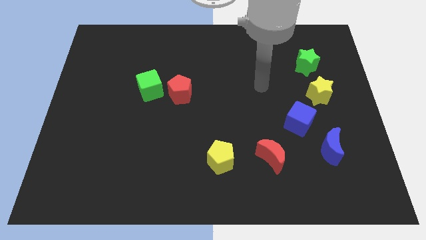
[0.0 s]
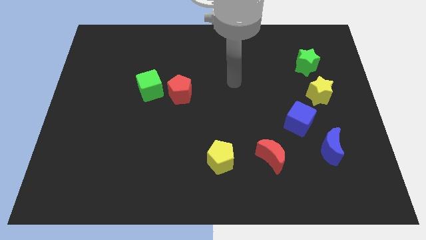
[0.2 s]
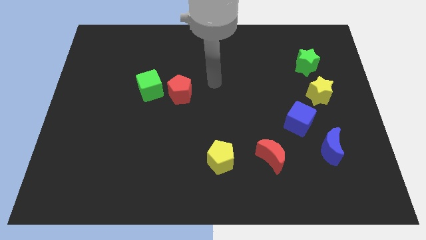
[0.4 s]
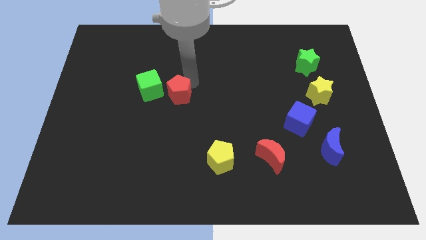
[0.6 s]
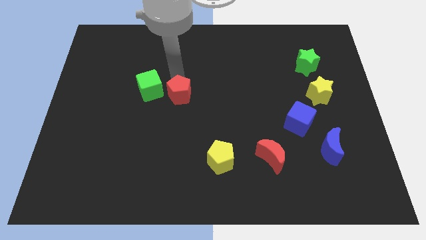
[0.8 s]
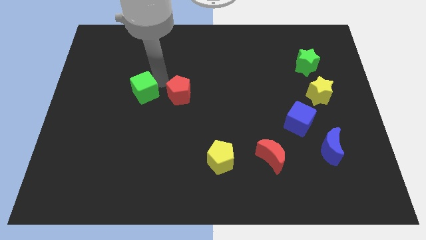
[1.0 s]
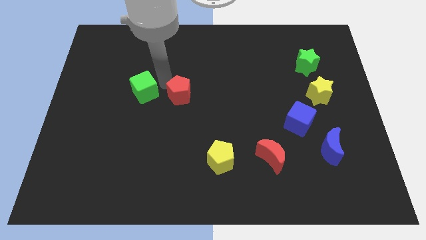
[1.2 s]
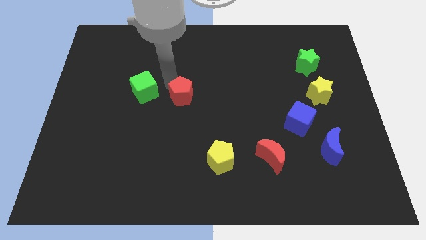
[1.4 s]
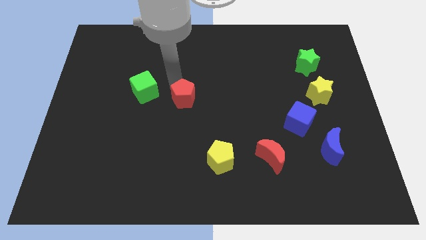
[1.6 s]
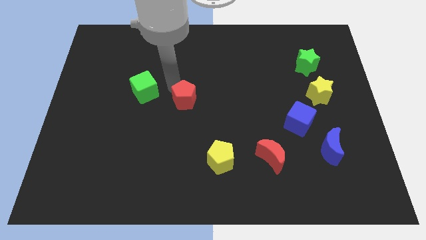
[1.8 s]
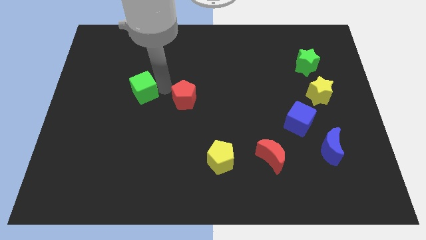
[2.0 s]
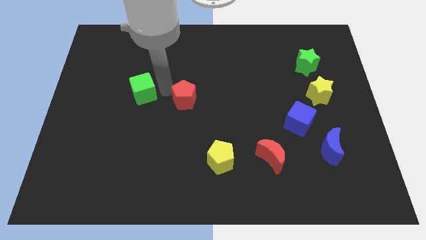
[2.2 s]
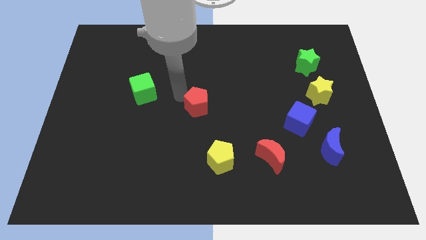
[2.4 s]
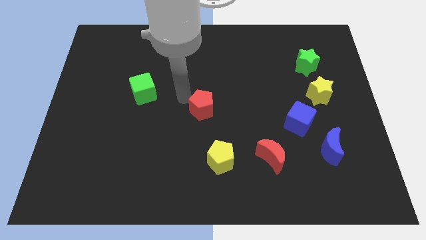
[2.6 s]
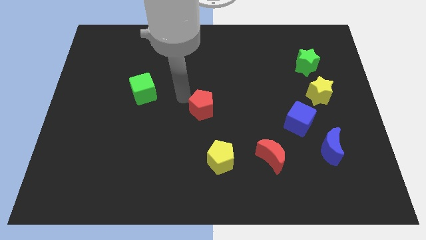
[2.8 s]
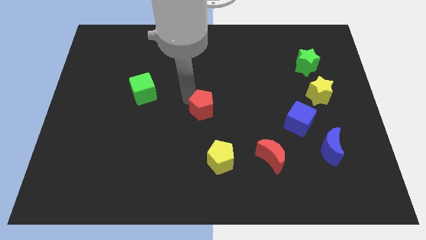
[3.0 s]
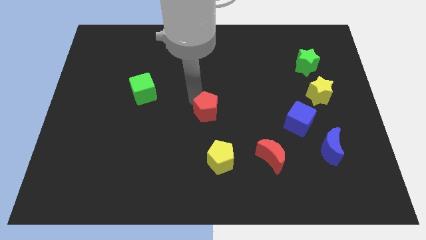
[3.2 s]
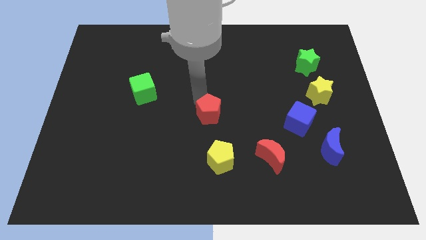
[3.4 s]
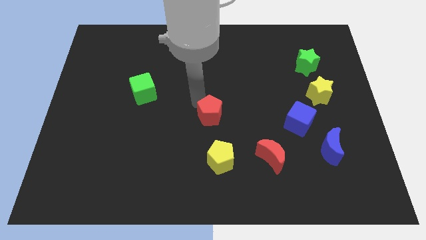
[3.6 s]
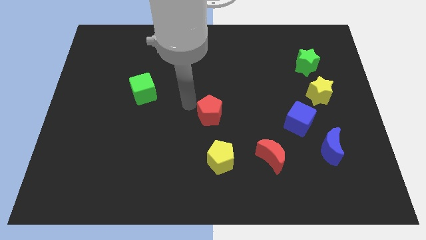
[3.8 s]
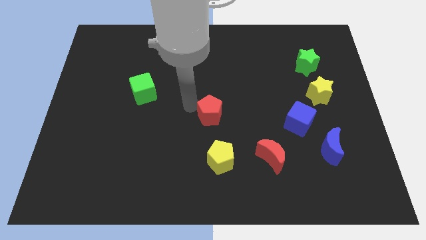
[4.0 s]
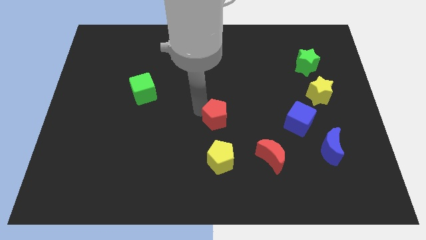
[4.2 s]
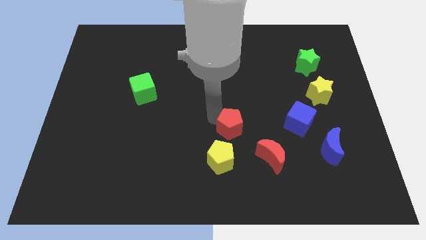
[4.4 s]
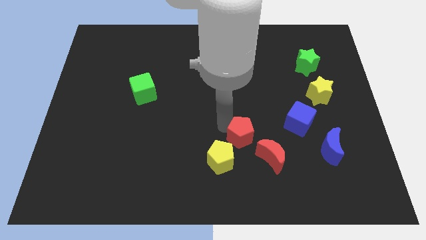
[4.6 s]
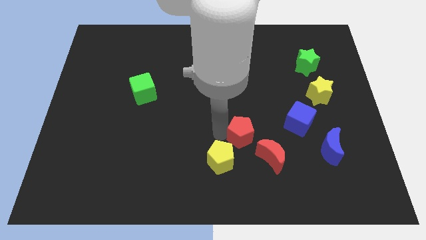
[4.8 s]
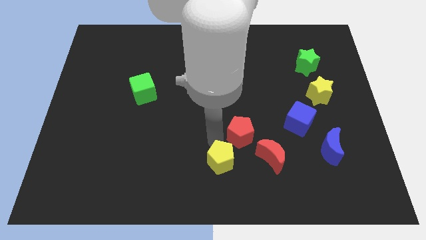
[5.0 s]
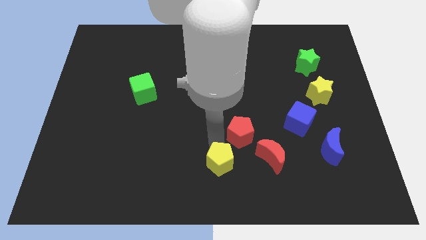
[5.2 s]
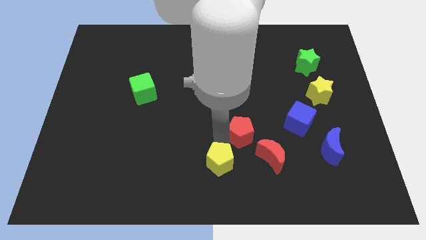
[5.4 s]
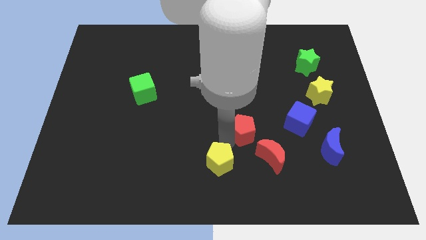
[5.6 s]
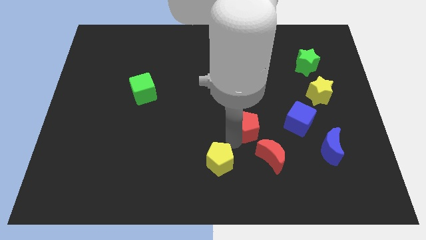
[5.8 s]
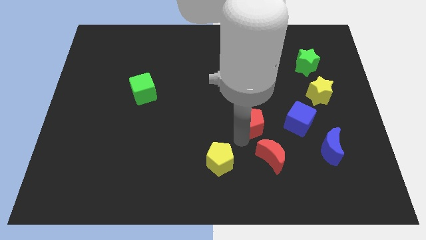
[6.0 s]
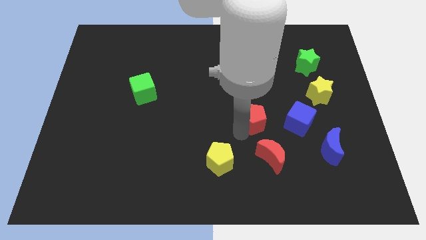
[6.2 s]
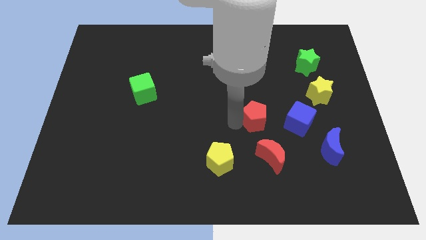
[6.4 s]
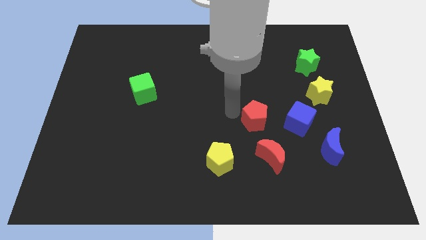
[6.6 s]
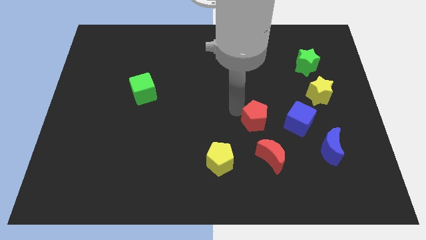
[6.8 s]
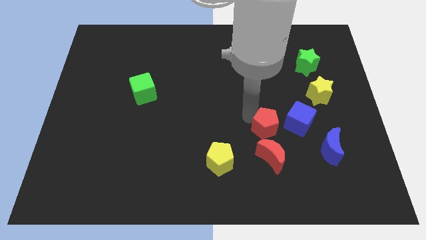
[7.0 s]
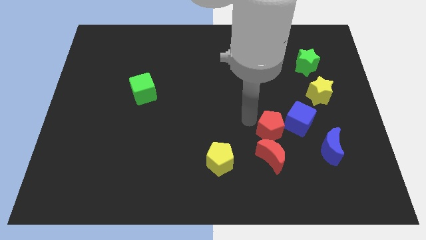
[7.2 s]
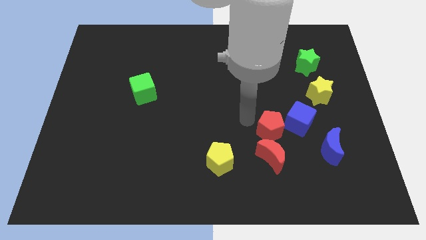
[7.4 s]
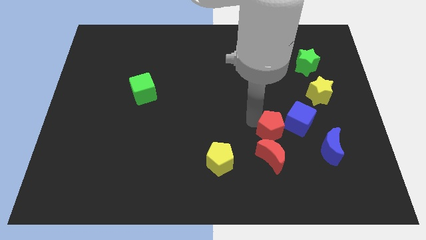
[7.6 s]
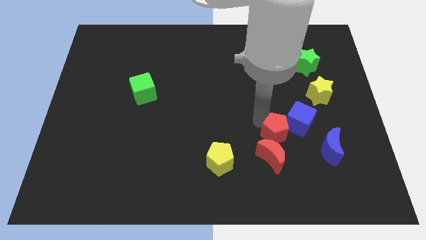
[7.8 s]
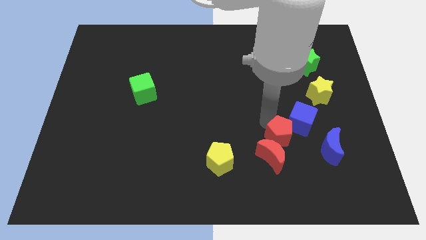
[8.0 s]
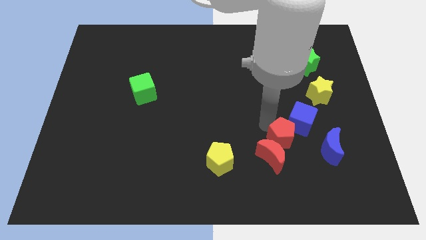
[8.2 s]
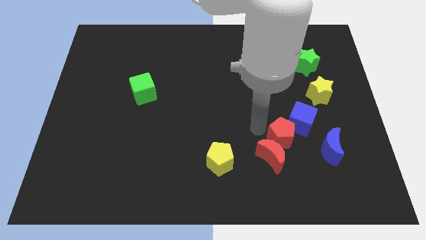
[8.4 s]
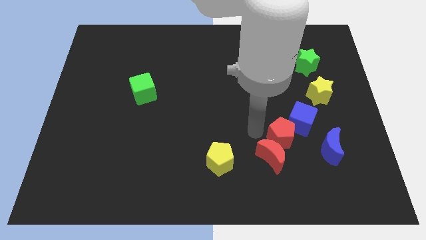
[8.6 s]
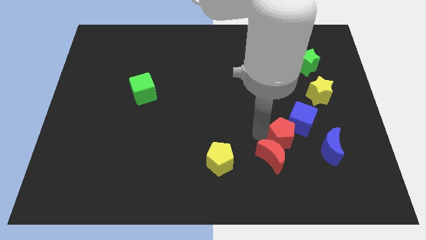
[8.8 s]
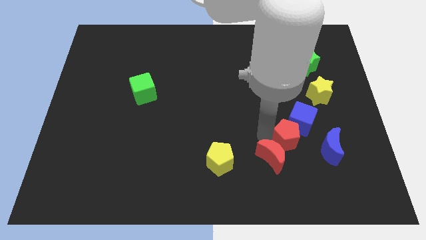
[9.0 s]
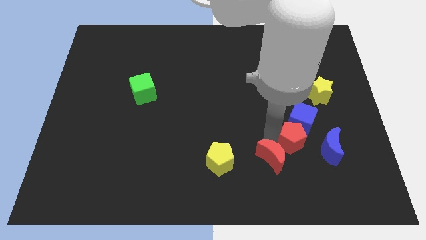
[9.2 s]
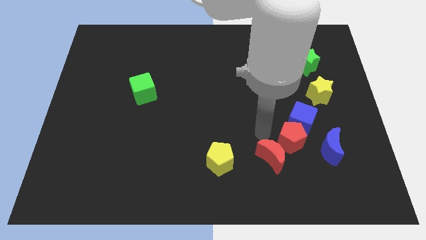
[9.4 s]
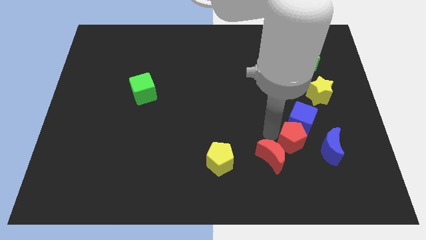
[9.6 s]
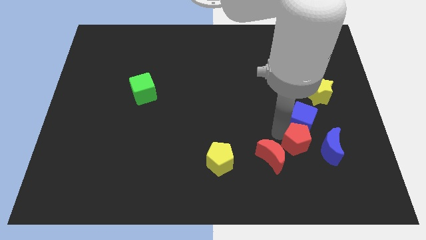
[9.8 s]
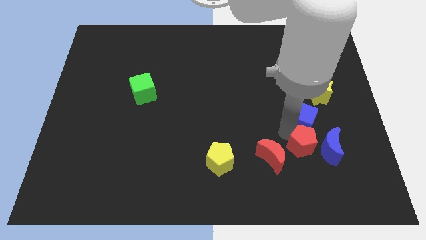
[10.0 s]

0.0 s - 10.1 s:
move the red pentagon close to the blue moon

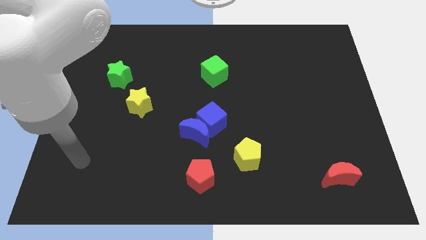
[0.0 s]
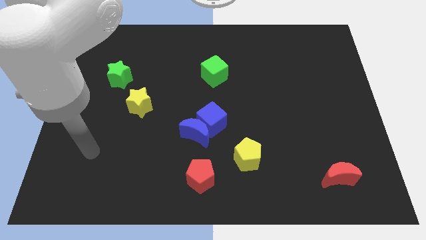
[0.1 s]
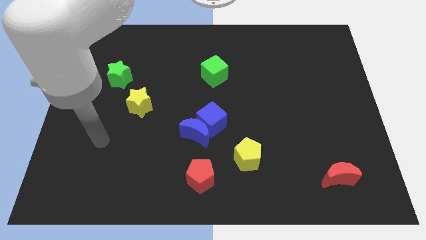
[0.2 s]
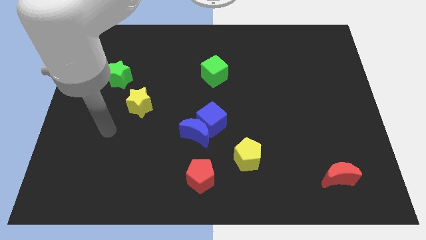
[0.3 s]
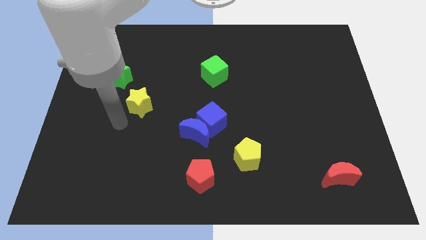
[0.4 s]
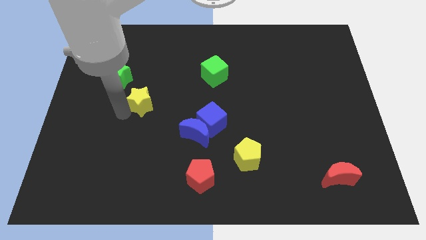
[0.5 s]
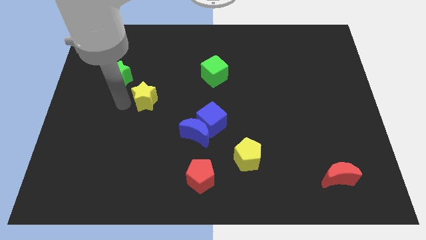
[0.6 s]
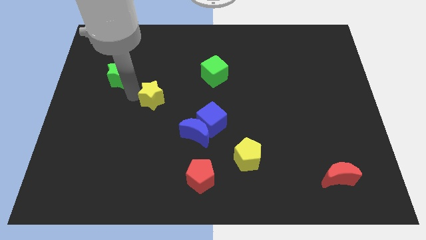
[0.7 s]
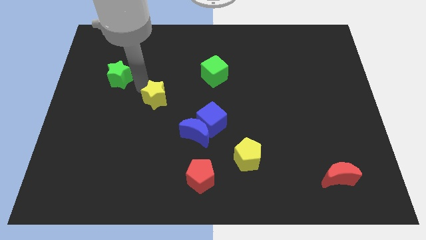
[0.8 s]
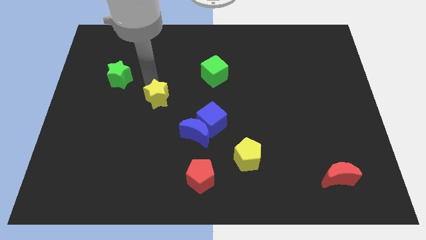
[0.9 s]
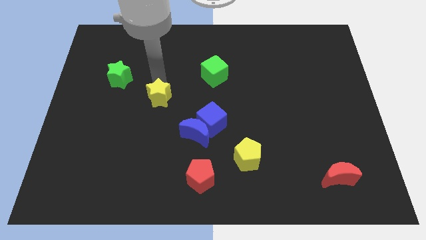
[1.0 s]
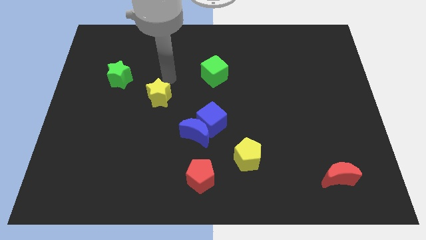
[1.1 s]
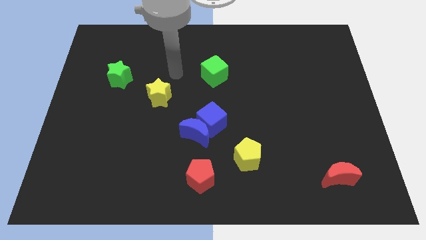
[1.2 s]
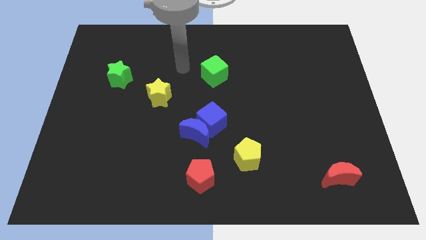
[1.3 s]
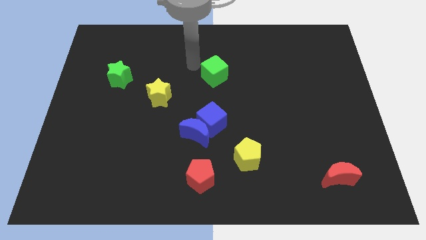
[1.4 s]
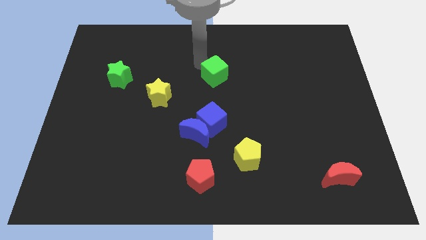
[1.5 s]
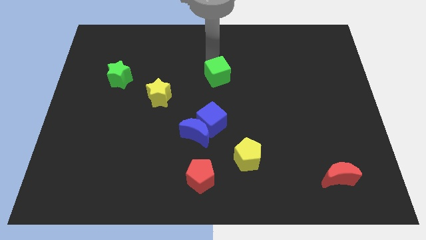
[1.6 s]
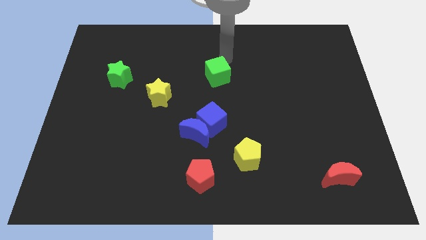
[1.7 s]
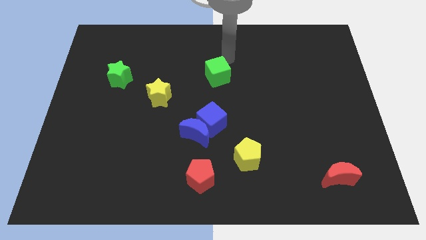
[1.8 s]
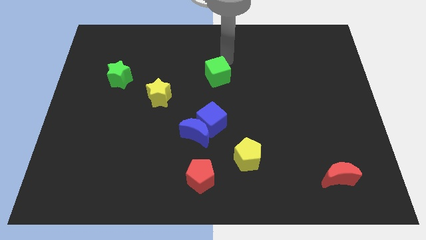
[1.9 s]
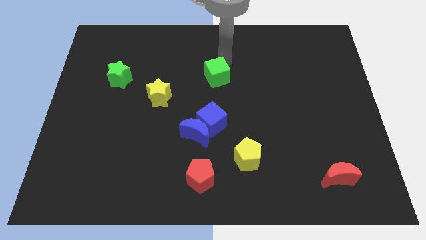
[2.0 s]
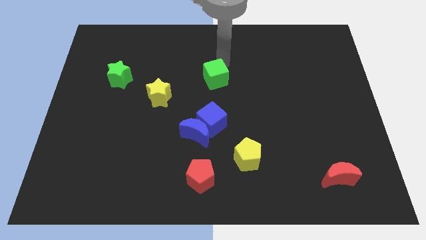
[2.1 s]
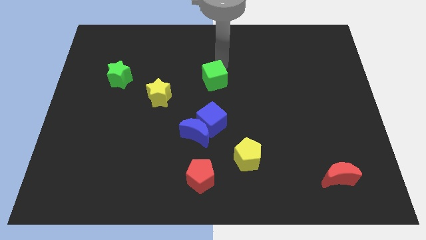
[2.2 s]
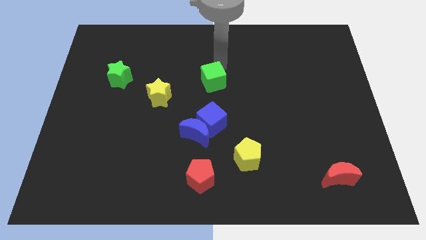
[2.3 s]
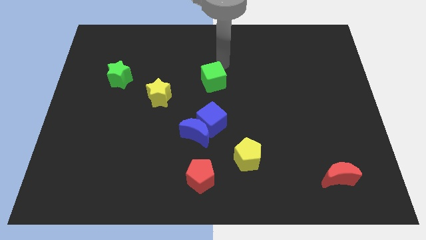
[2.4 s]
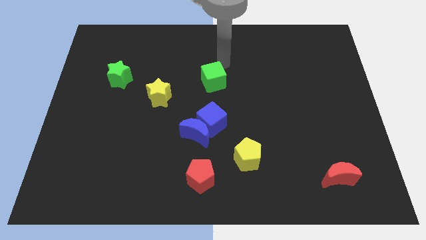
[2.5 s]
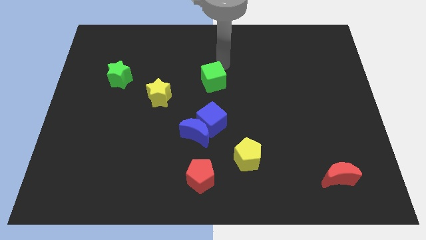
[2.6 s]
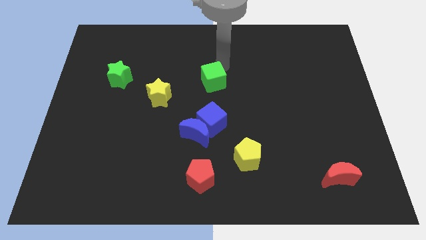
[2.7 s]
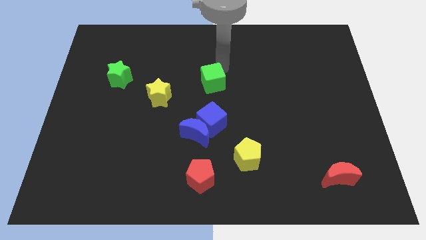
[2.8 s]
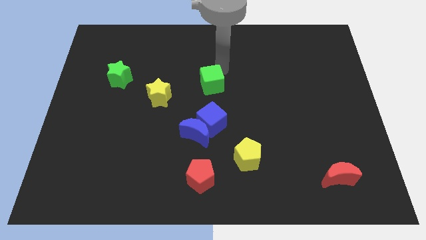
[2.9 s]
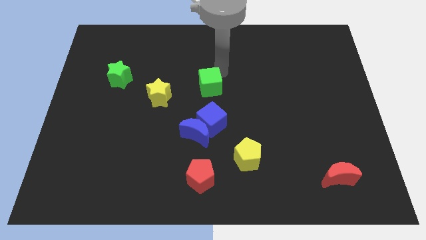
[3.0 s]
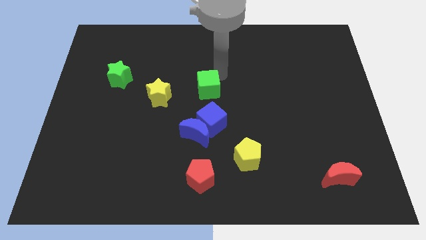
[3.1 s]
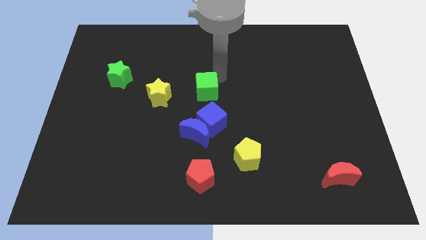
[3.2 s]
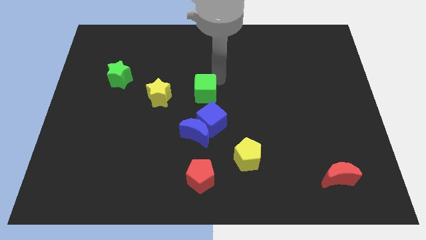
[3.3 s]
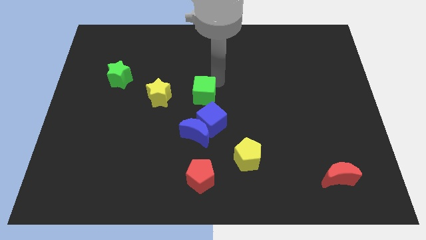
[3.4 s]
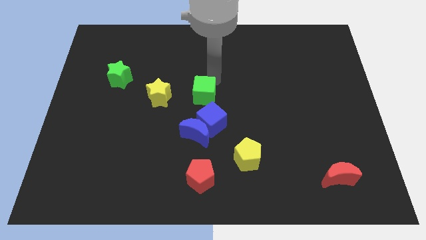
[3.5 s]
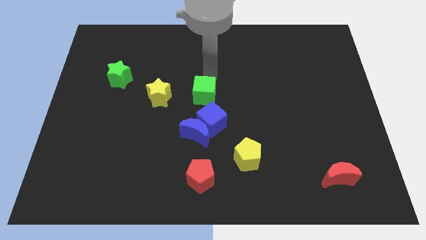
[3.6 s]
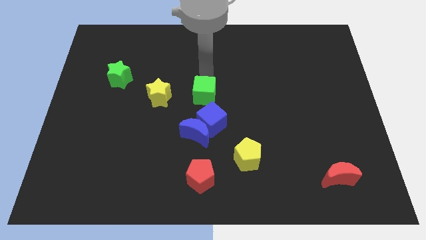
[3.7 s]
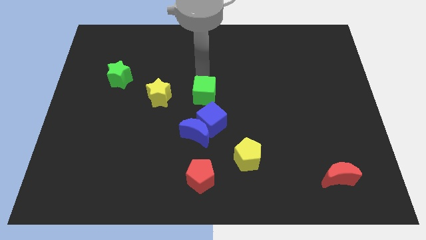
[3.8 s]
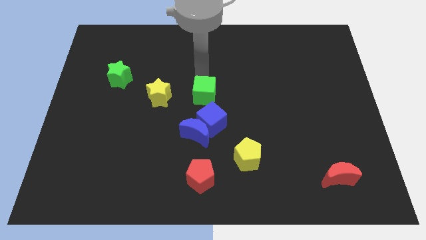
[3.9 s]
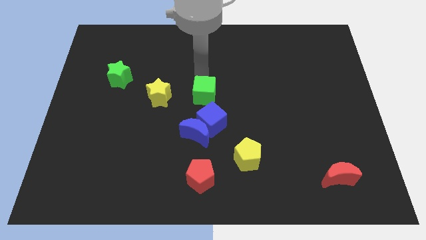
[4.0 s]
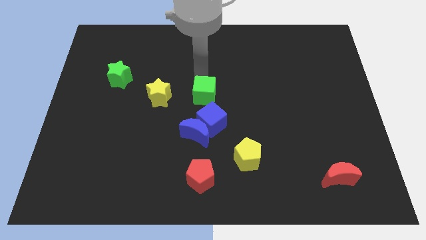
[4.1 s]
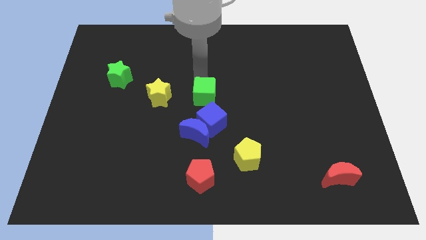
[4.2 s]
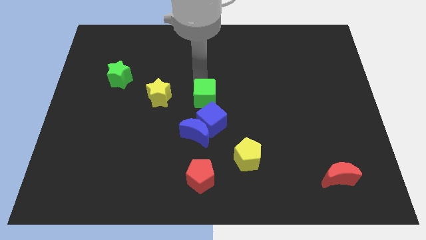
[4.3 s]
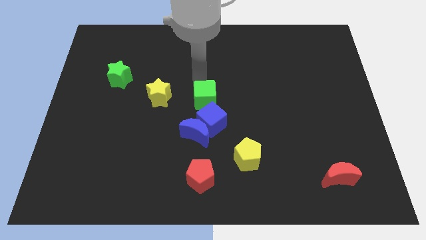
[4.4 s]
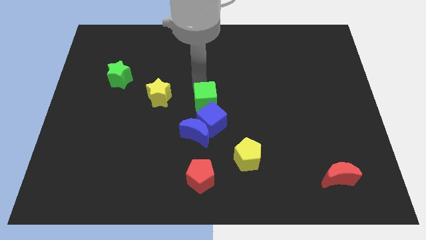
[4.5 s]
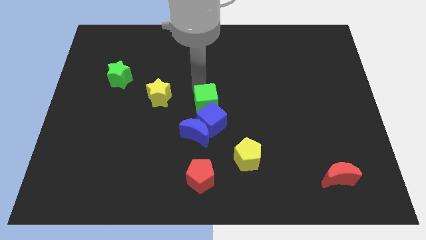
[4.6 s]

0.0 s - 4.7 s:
push the green cube close to the blue cube
